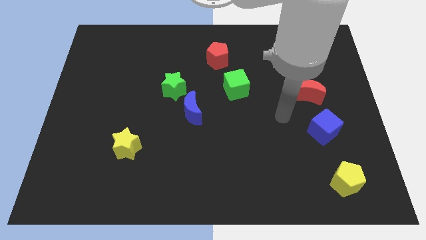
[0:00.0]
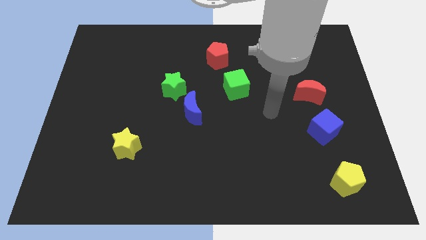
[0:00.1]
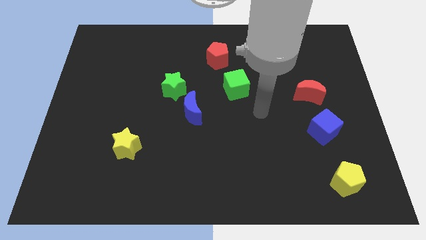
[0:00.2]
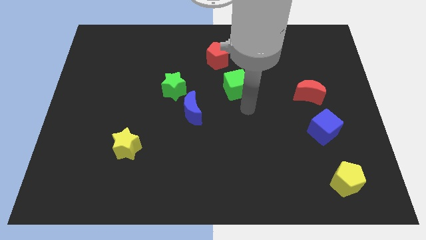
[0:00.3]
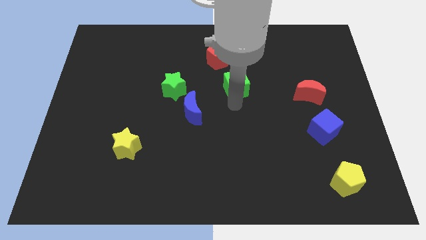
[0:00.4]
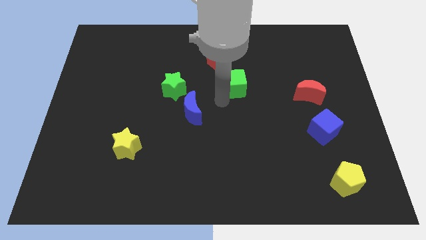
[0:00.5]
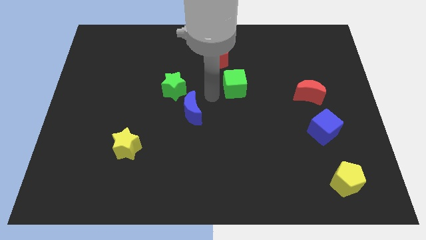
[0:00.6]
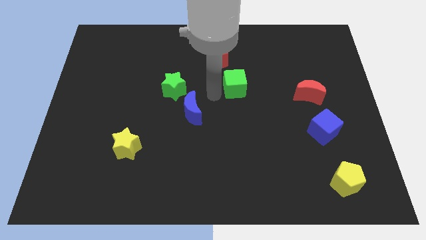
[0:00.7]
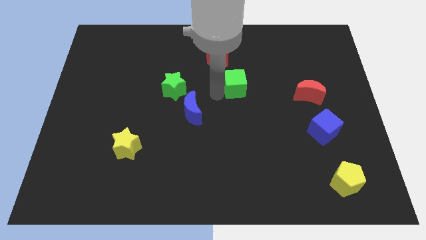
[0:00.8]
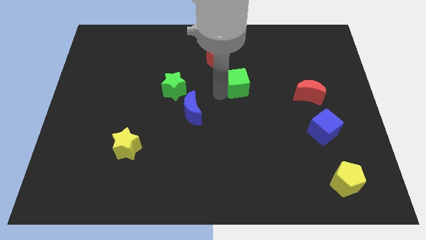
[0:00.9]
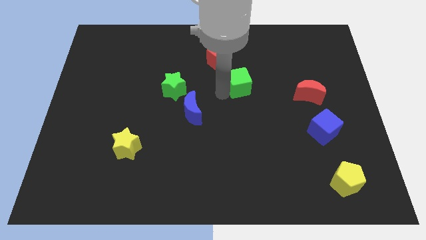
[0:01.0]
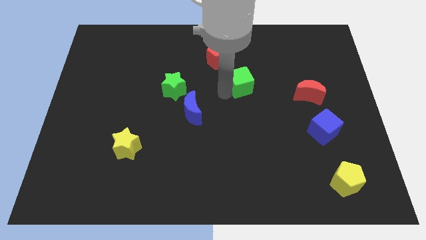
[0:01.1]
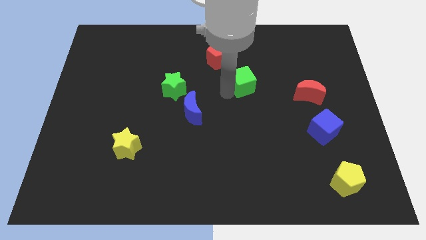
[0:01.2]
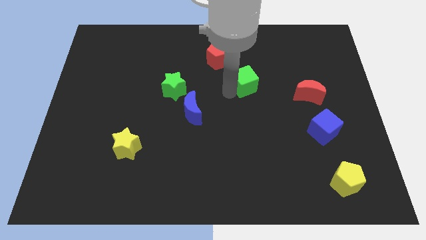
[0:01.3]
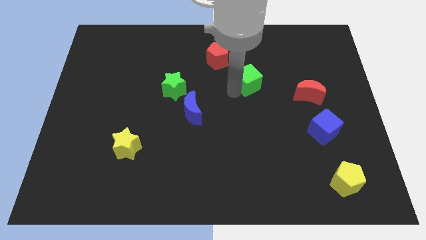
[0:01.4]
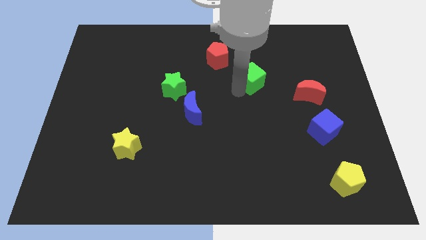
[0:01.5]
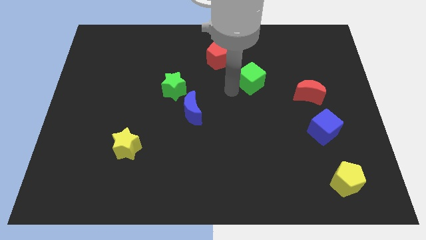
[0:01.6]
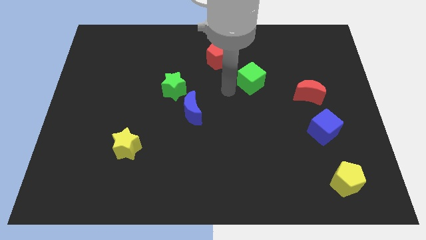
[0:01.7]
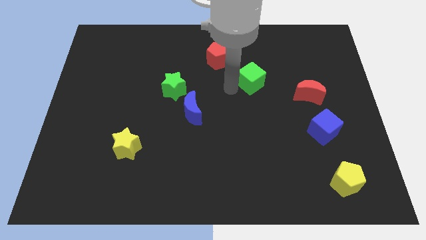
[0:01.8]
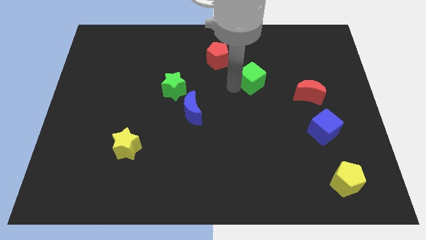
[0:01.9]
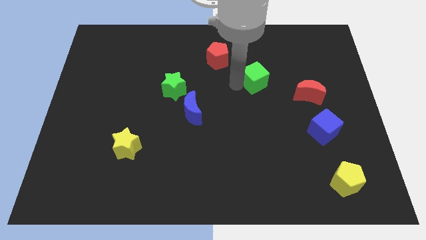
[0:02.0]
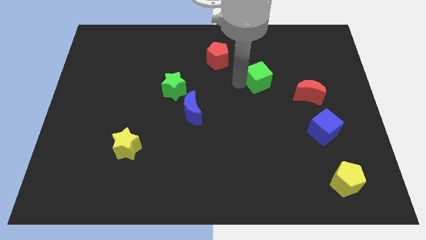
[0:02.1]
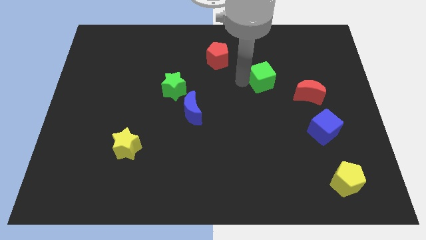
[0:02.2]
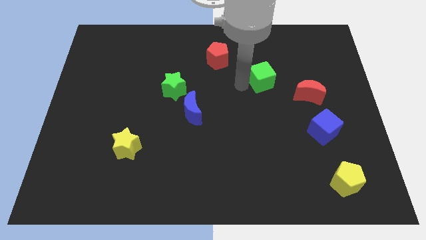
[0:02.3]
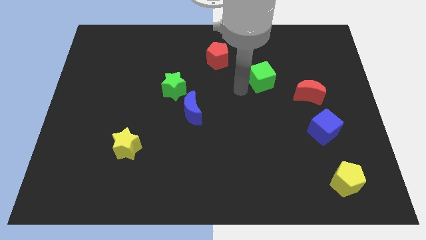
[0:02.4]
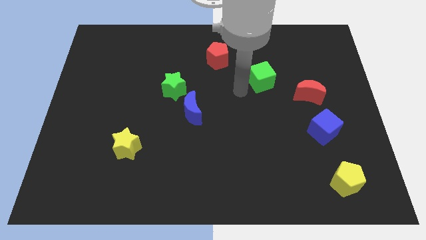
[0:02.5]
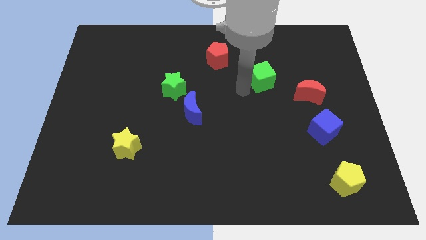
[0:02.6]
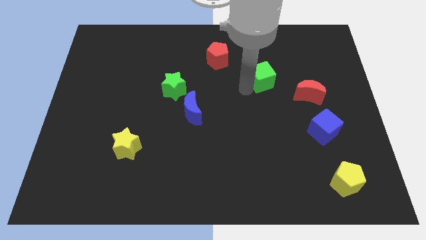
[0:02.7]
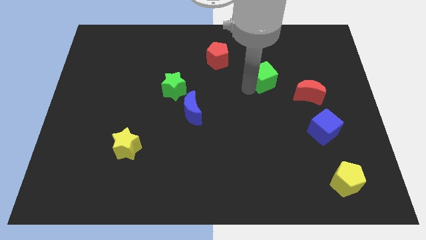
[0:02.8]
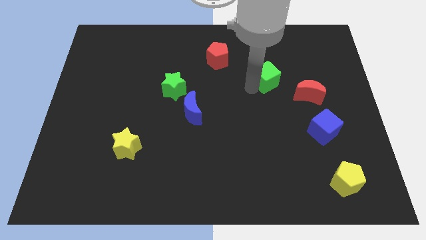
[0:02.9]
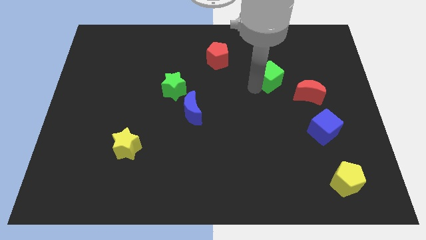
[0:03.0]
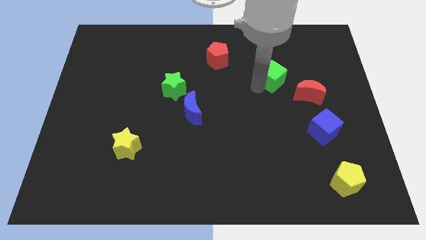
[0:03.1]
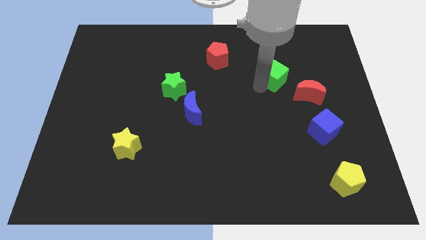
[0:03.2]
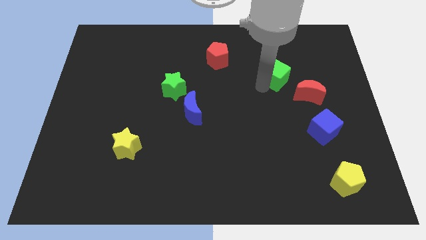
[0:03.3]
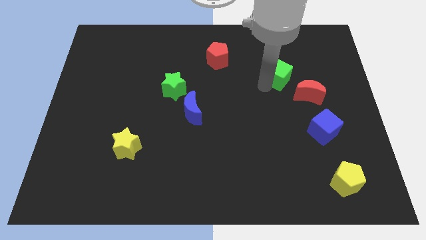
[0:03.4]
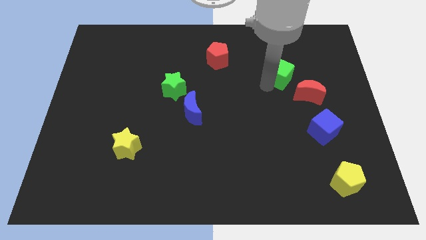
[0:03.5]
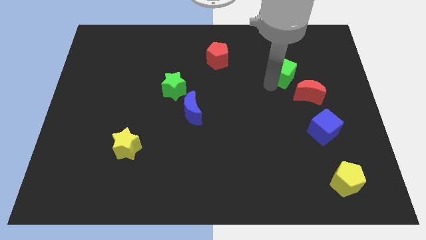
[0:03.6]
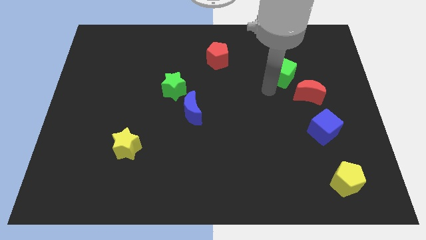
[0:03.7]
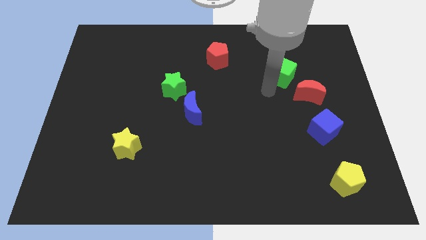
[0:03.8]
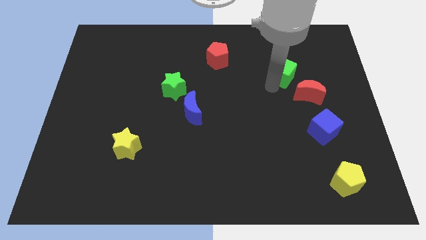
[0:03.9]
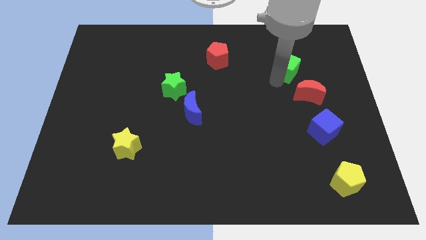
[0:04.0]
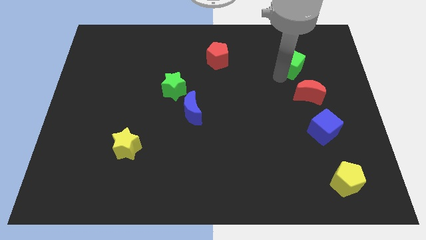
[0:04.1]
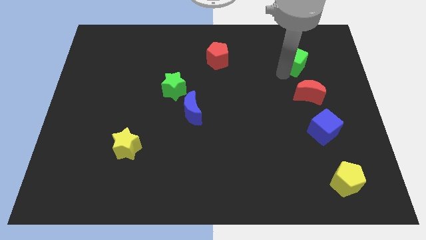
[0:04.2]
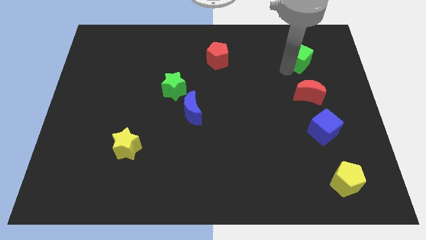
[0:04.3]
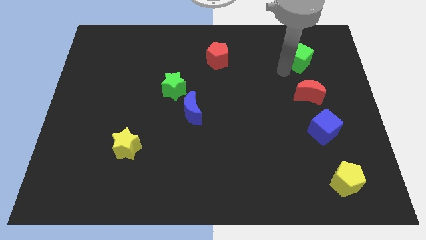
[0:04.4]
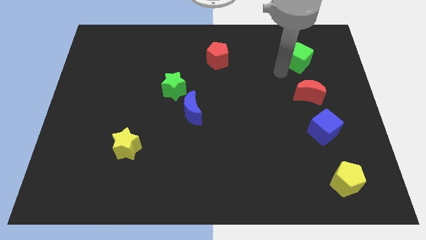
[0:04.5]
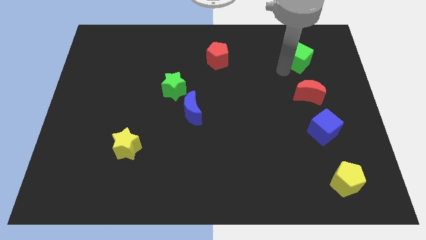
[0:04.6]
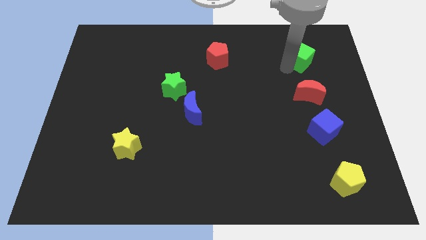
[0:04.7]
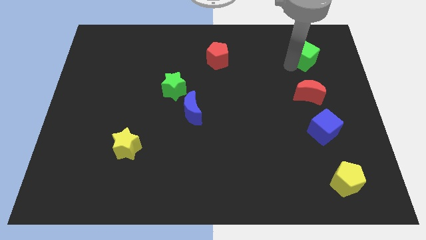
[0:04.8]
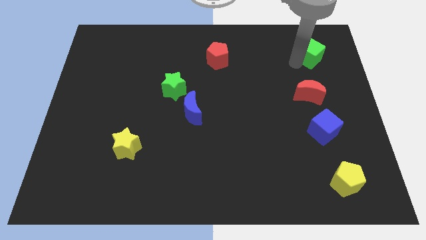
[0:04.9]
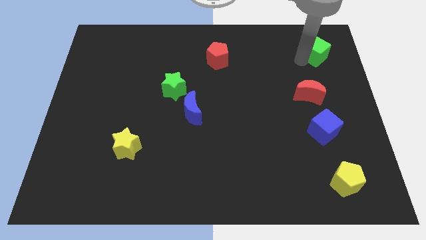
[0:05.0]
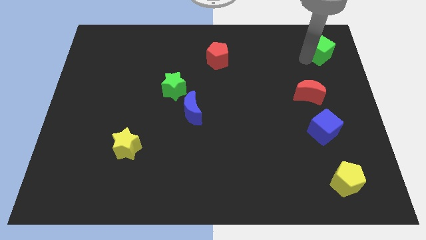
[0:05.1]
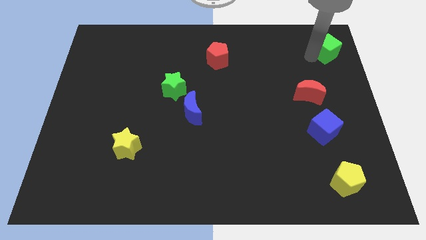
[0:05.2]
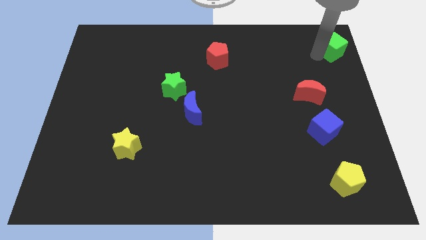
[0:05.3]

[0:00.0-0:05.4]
move the green cube to the top right

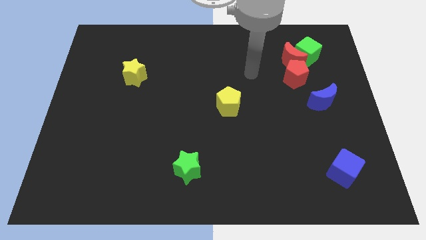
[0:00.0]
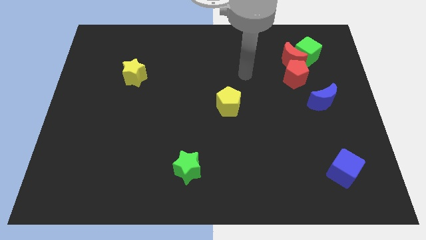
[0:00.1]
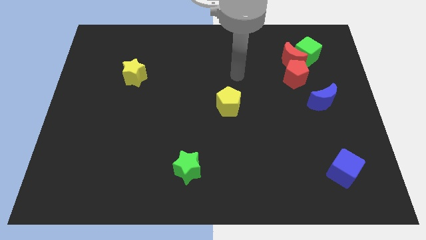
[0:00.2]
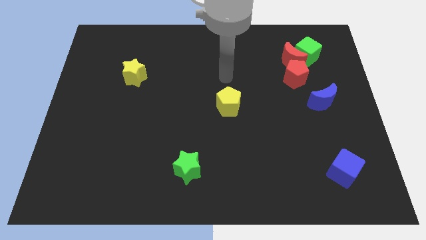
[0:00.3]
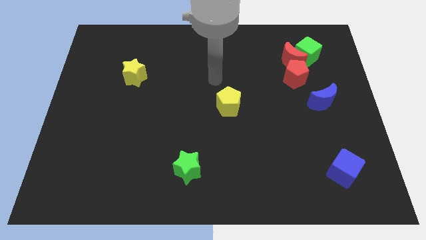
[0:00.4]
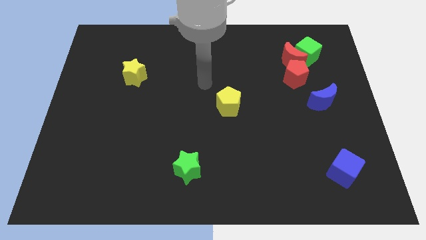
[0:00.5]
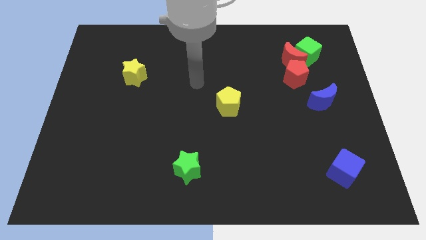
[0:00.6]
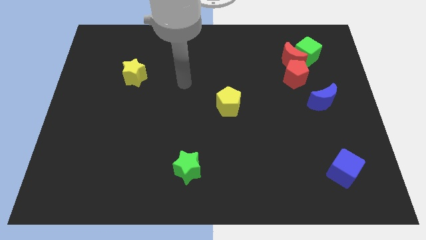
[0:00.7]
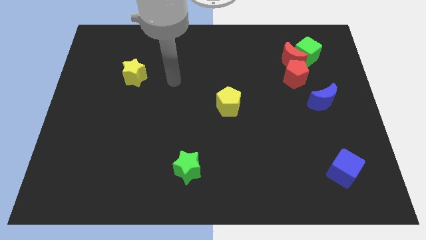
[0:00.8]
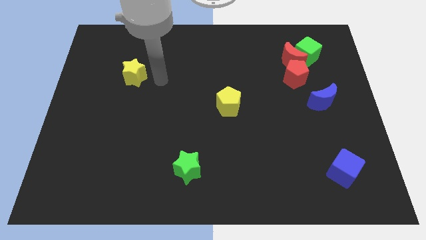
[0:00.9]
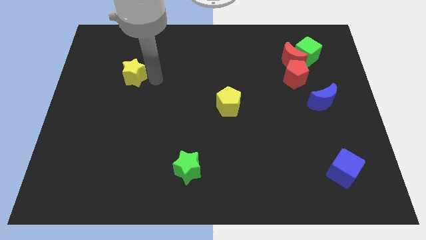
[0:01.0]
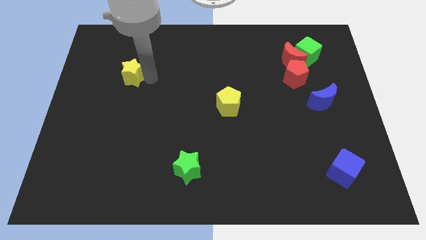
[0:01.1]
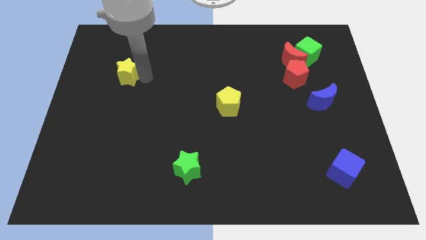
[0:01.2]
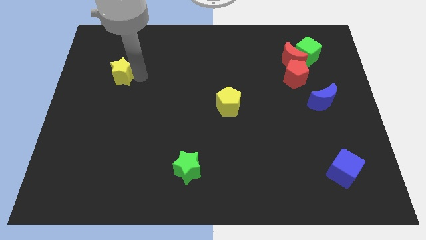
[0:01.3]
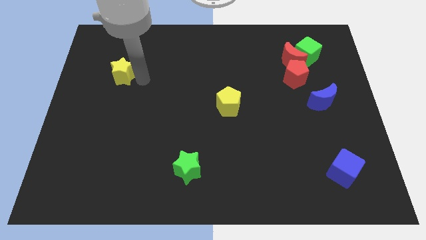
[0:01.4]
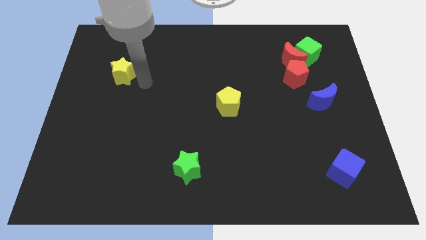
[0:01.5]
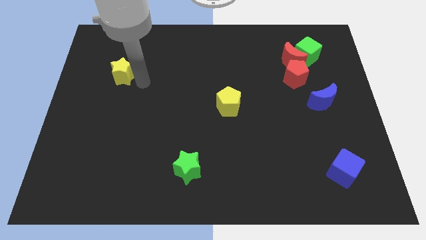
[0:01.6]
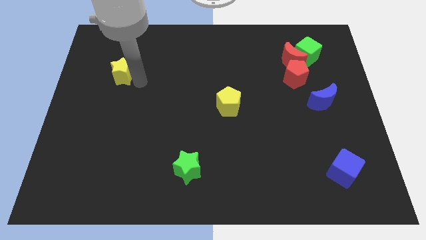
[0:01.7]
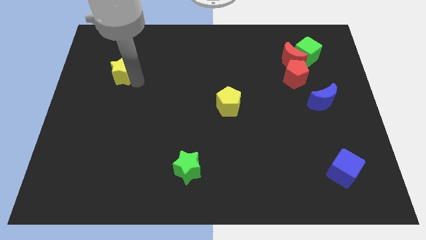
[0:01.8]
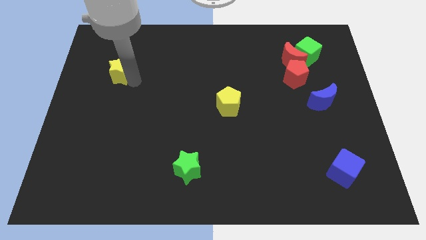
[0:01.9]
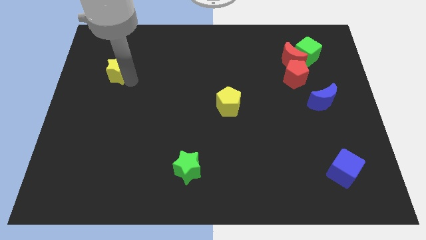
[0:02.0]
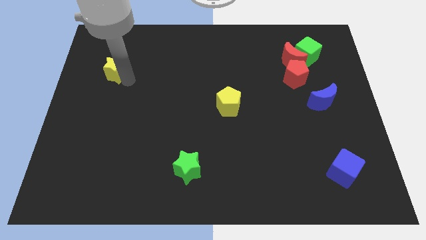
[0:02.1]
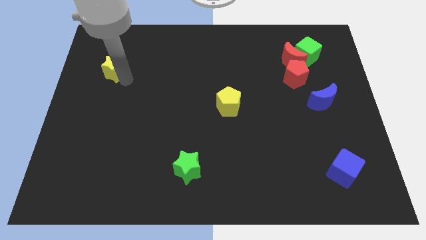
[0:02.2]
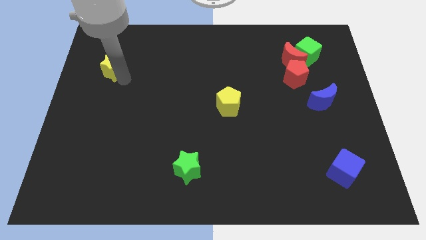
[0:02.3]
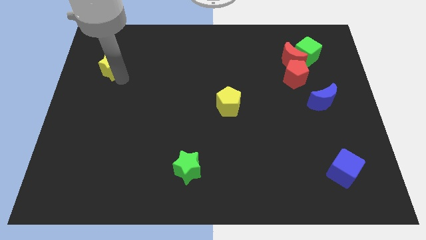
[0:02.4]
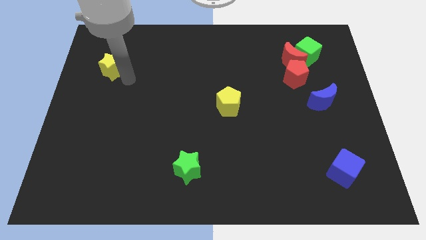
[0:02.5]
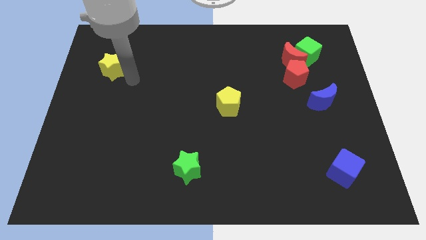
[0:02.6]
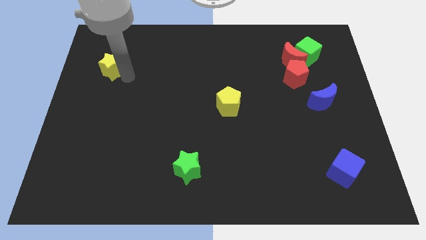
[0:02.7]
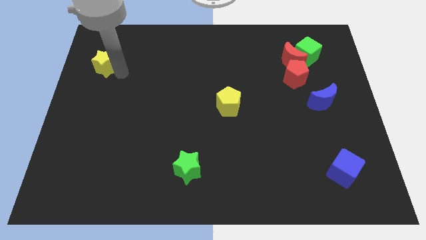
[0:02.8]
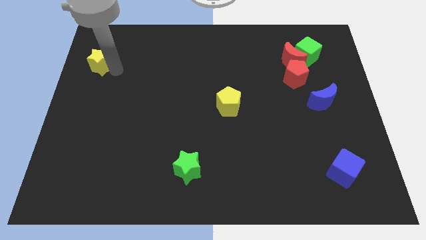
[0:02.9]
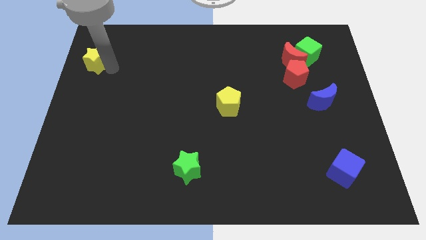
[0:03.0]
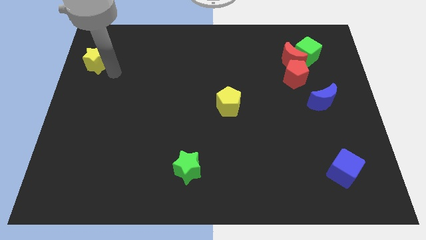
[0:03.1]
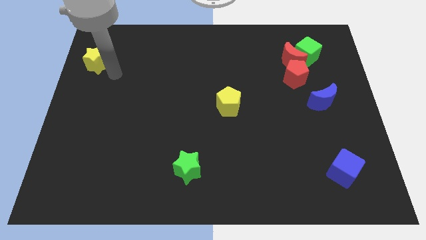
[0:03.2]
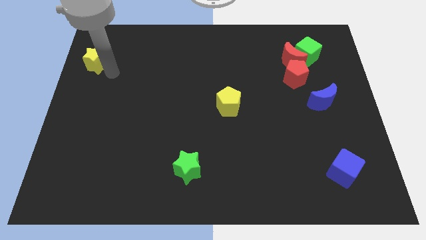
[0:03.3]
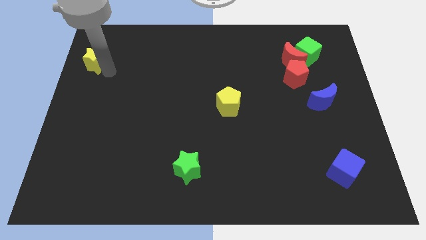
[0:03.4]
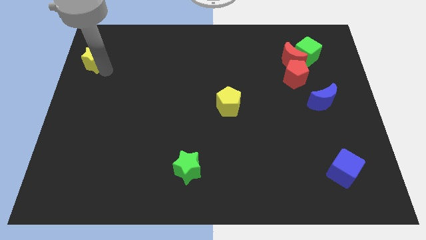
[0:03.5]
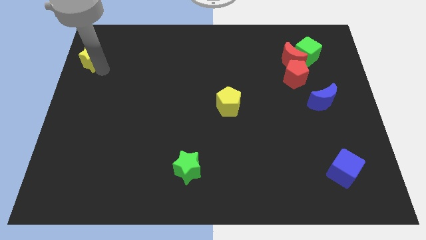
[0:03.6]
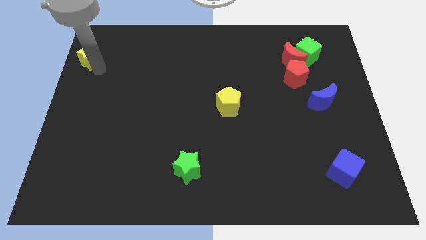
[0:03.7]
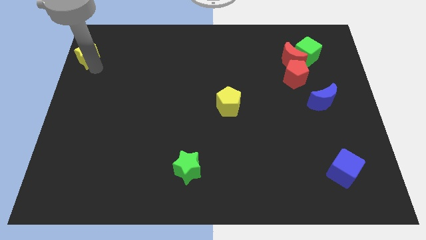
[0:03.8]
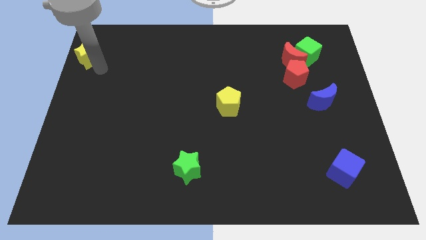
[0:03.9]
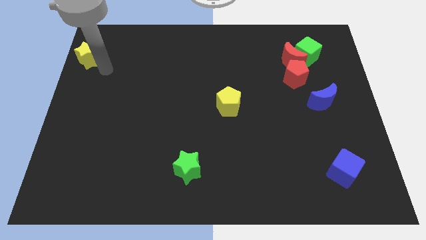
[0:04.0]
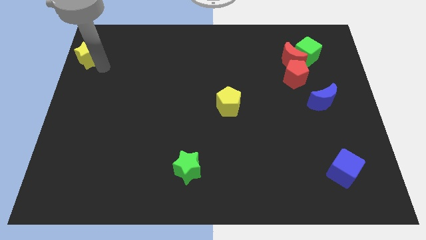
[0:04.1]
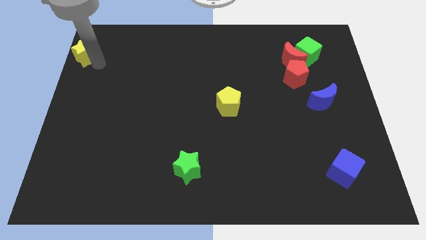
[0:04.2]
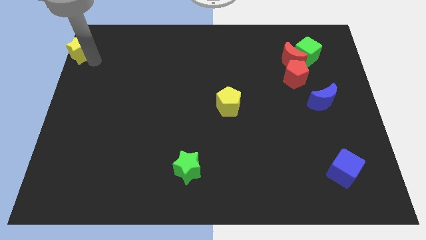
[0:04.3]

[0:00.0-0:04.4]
slide the yellow star to the top left
